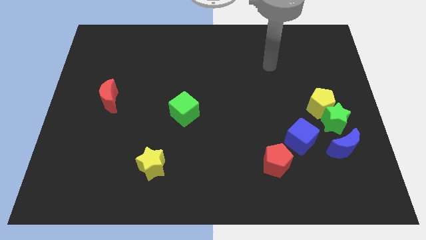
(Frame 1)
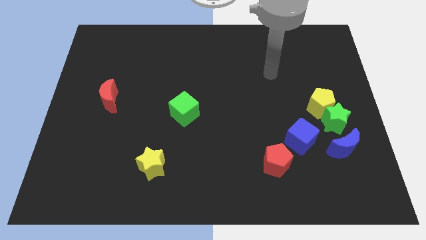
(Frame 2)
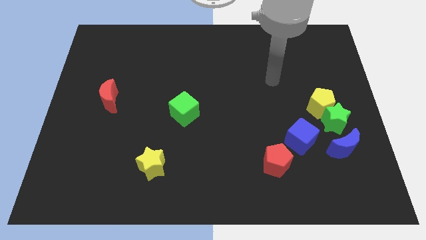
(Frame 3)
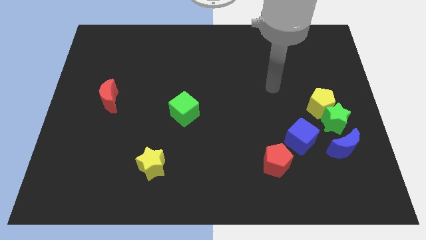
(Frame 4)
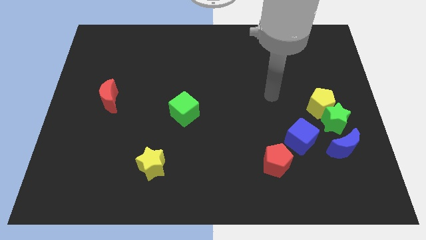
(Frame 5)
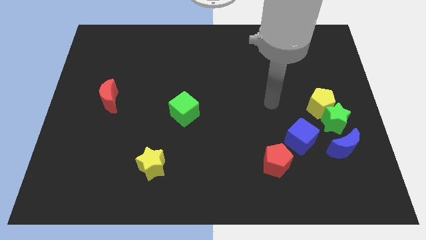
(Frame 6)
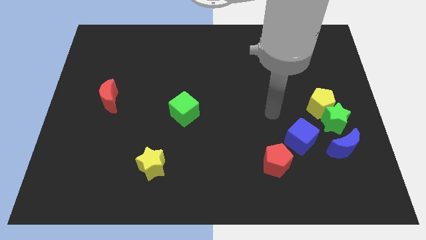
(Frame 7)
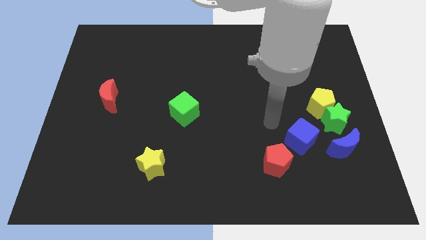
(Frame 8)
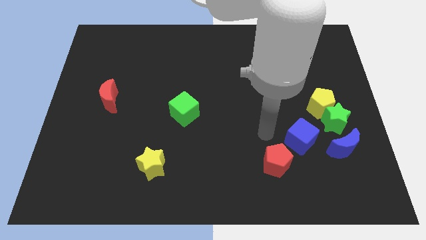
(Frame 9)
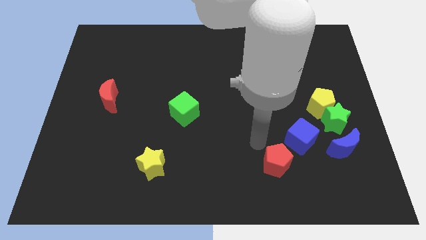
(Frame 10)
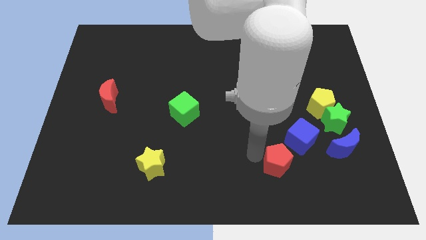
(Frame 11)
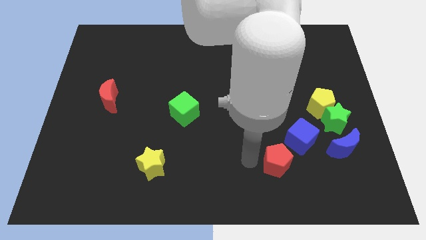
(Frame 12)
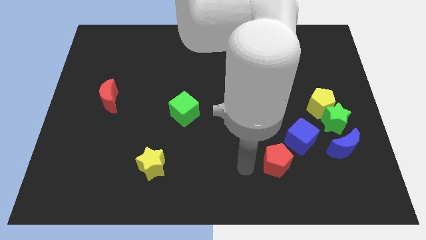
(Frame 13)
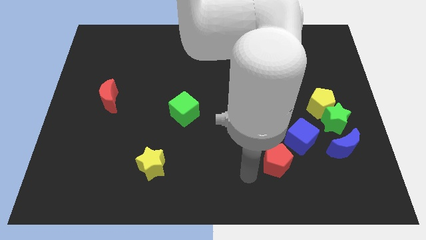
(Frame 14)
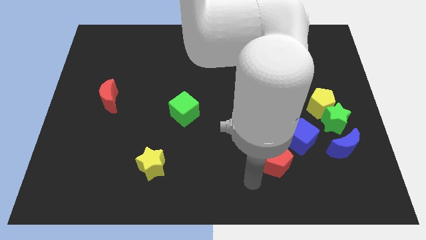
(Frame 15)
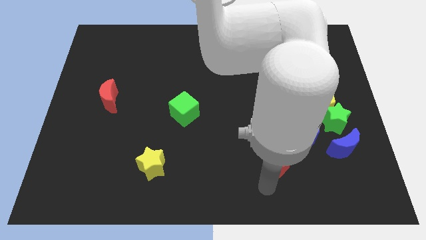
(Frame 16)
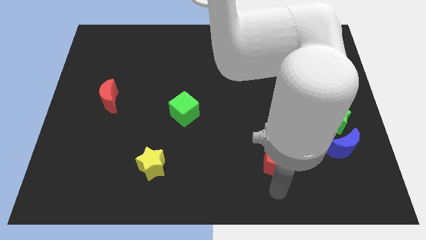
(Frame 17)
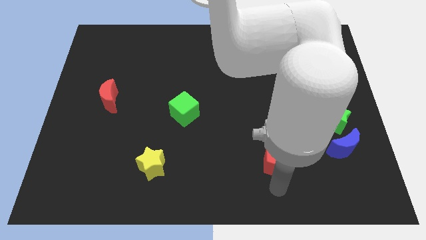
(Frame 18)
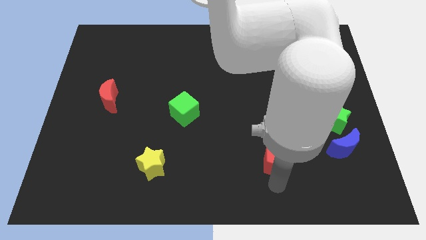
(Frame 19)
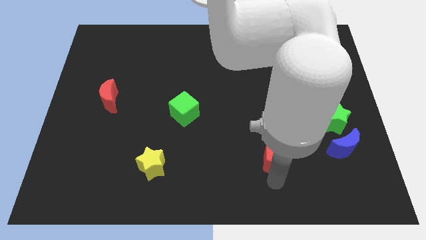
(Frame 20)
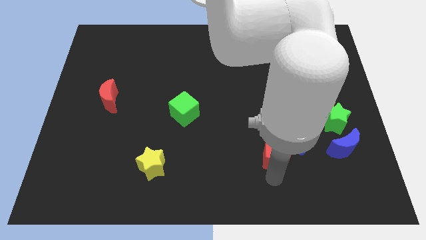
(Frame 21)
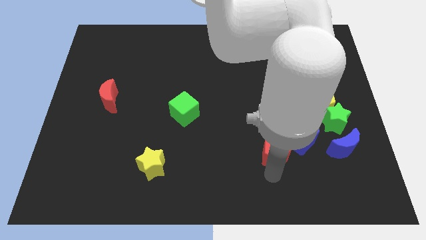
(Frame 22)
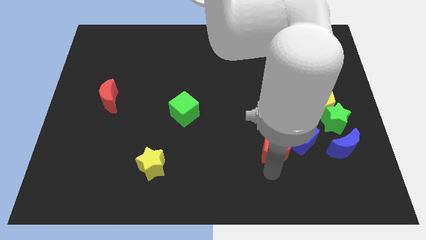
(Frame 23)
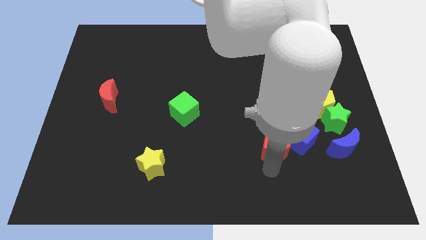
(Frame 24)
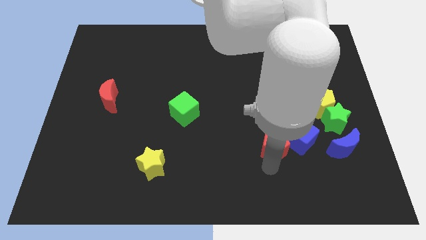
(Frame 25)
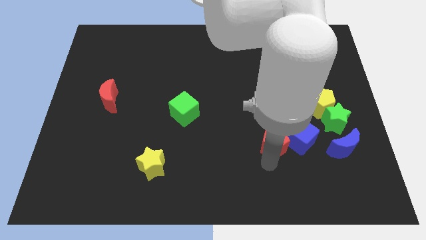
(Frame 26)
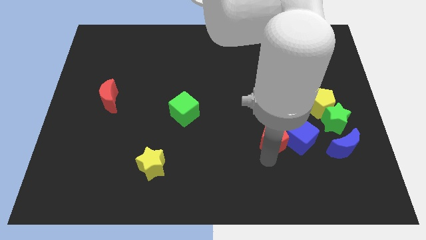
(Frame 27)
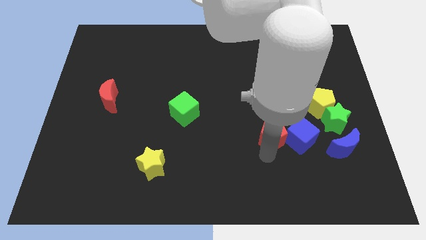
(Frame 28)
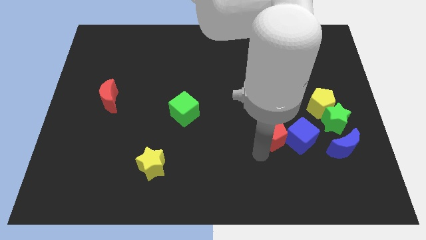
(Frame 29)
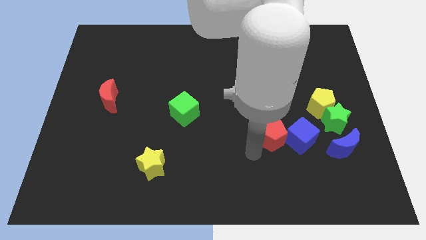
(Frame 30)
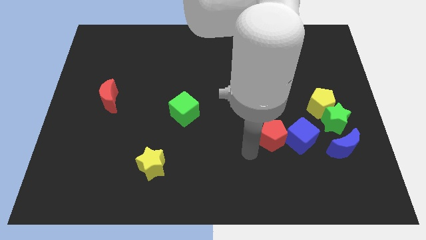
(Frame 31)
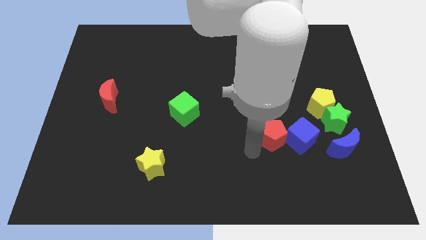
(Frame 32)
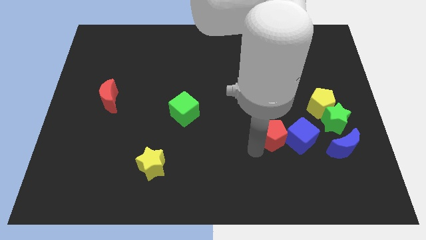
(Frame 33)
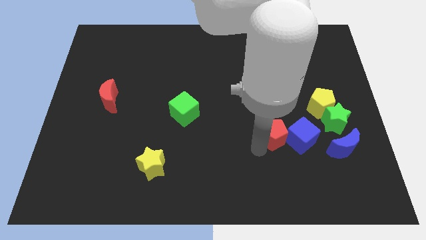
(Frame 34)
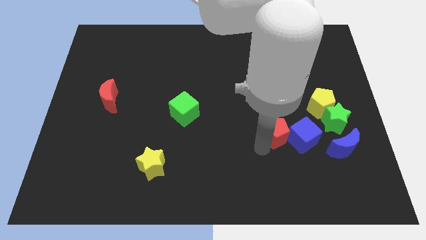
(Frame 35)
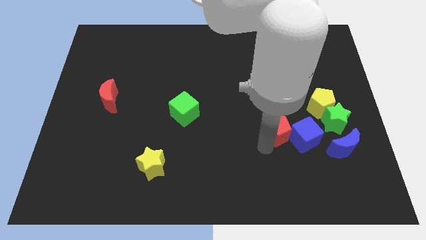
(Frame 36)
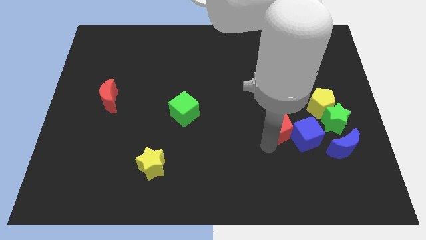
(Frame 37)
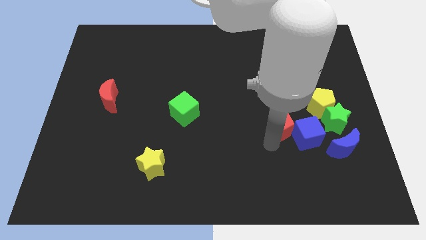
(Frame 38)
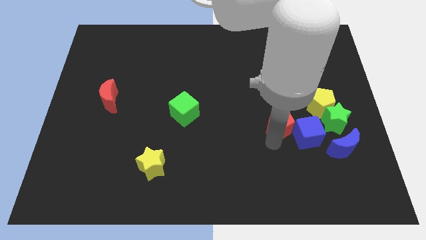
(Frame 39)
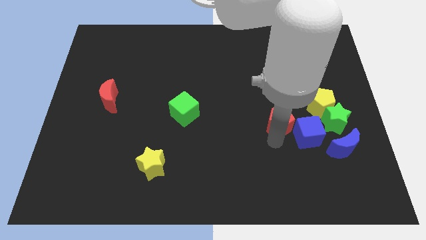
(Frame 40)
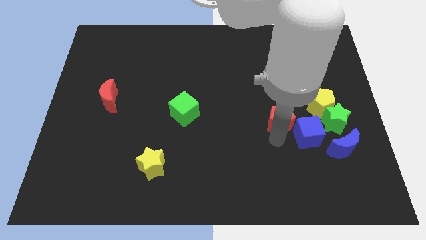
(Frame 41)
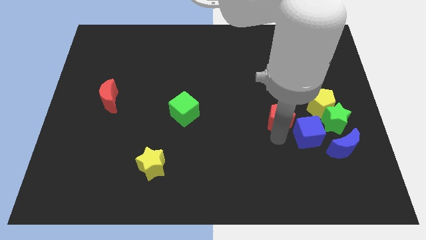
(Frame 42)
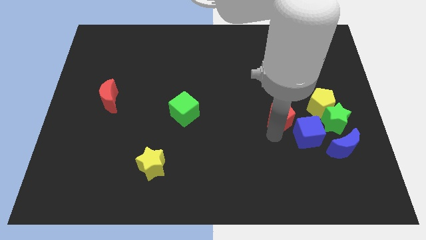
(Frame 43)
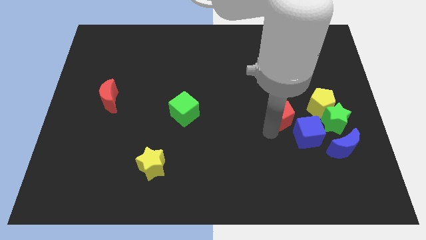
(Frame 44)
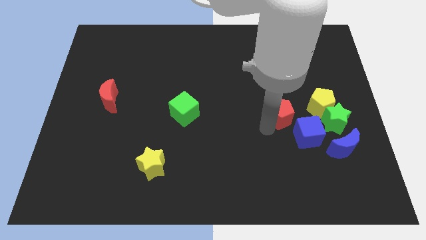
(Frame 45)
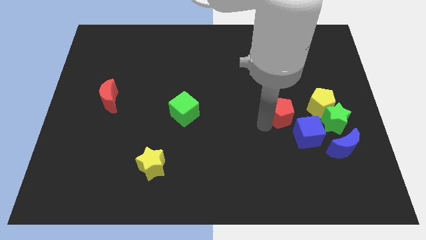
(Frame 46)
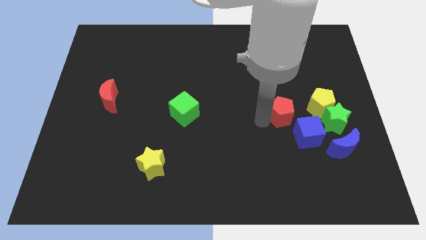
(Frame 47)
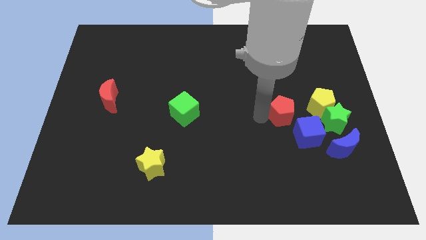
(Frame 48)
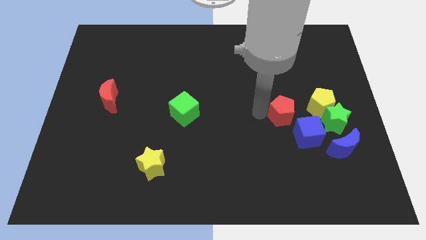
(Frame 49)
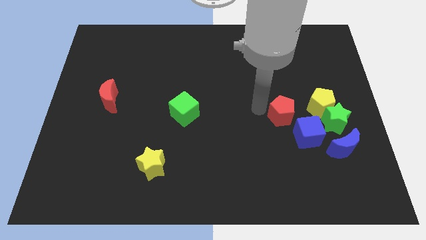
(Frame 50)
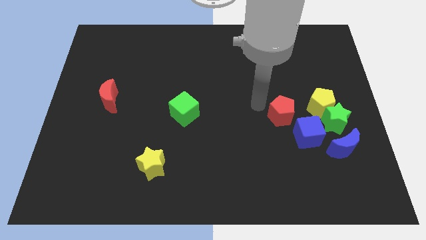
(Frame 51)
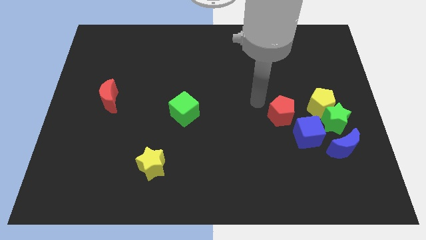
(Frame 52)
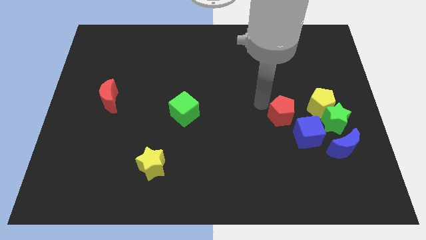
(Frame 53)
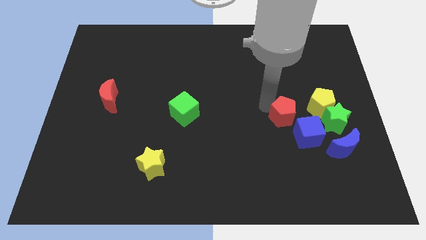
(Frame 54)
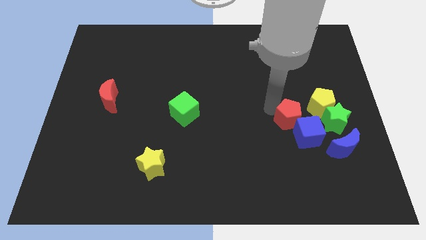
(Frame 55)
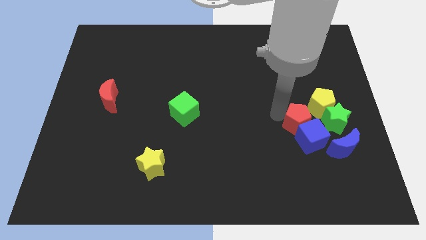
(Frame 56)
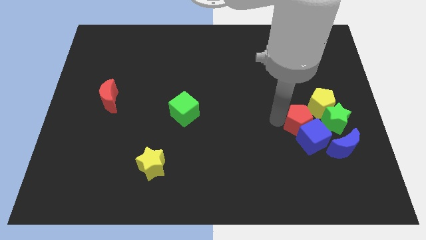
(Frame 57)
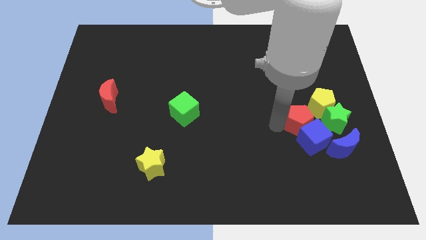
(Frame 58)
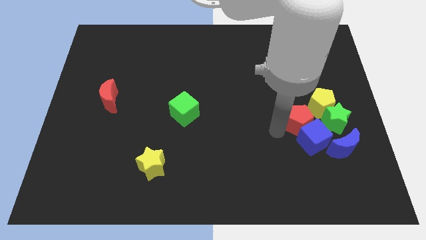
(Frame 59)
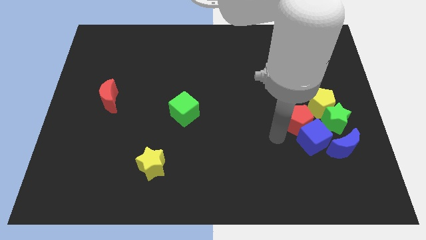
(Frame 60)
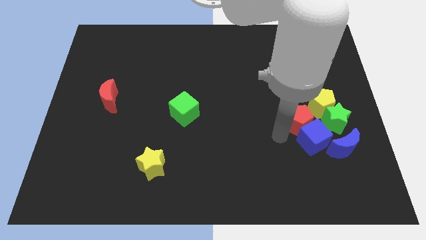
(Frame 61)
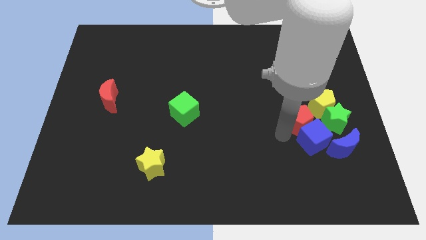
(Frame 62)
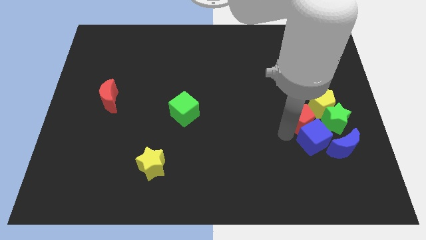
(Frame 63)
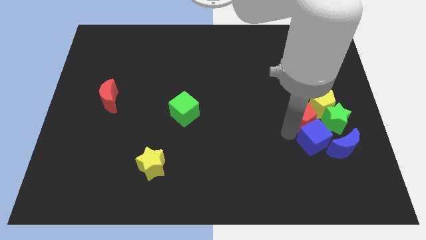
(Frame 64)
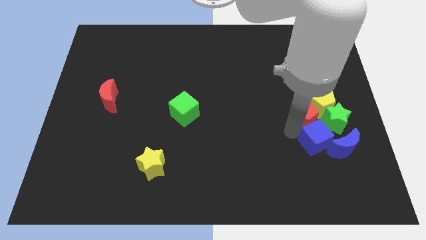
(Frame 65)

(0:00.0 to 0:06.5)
push the red pentagon towards the yellow pentagon

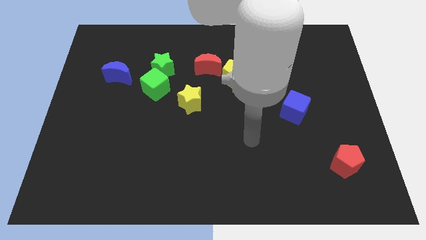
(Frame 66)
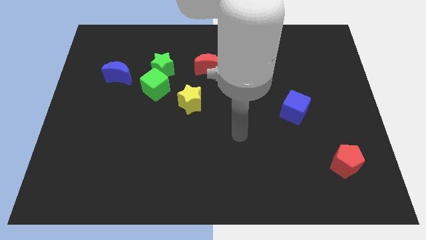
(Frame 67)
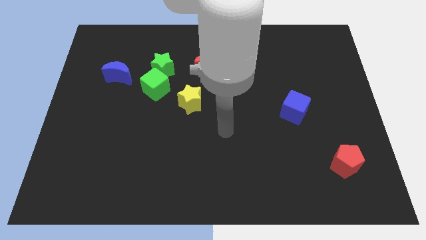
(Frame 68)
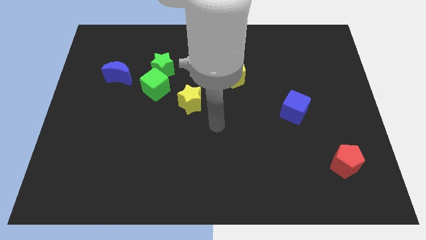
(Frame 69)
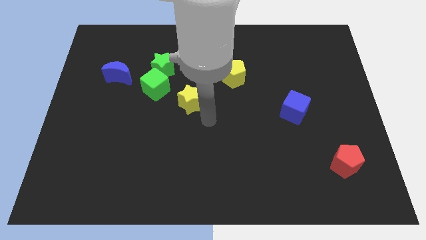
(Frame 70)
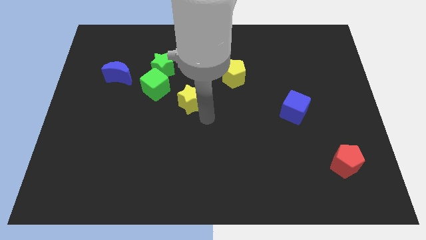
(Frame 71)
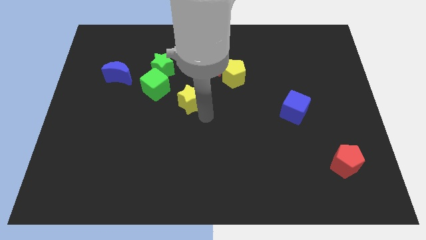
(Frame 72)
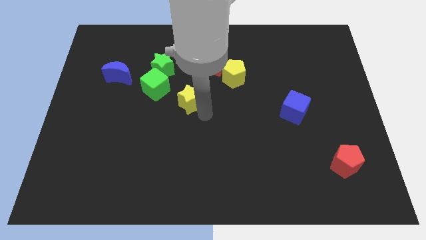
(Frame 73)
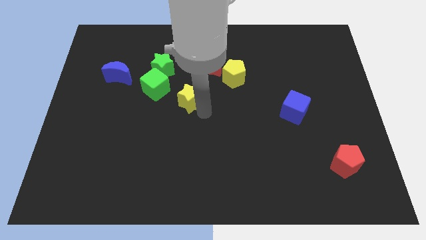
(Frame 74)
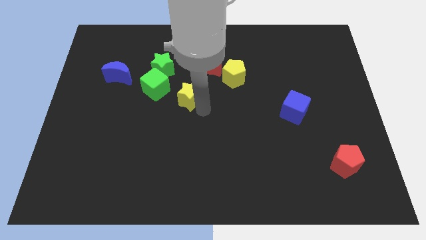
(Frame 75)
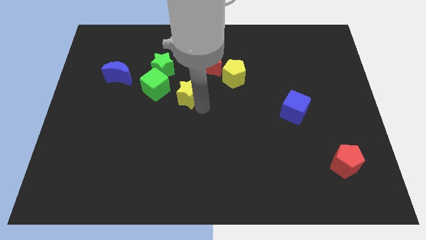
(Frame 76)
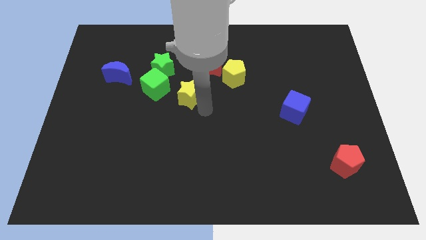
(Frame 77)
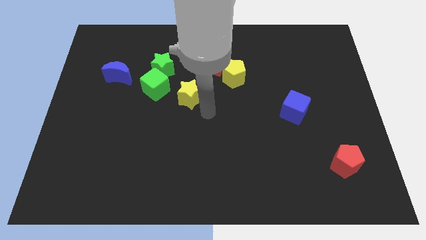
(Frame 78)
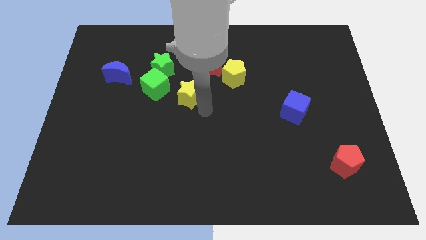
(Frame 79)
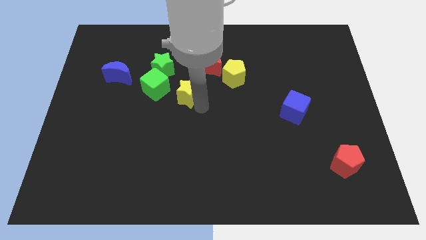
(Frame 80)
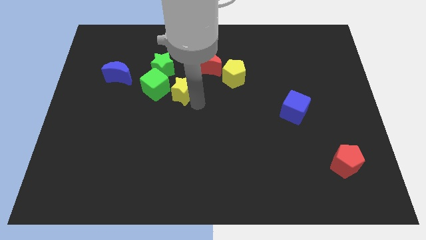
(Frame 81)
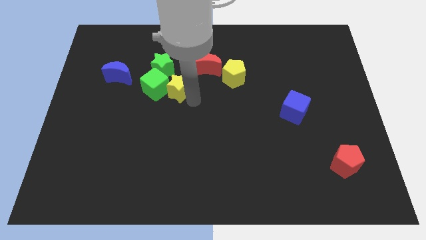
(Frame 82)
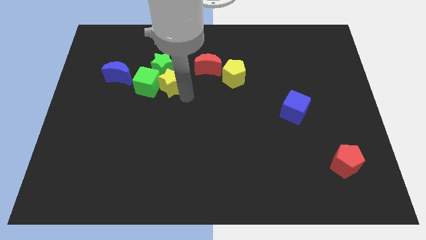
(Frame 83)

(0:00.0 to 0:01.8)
slide the yellow star towards the green star
